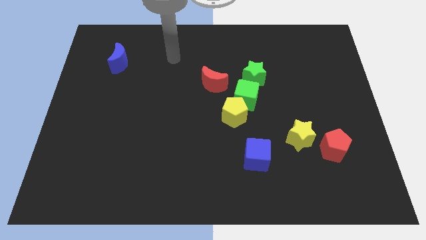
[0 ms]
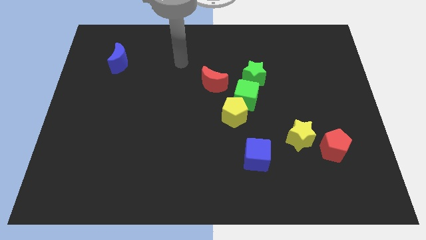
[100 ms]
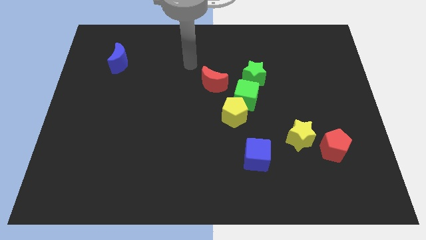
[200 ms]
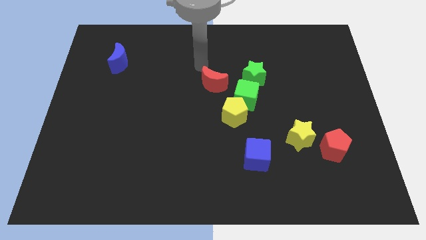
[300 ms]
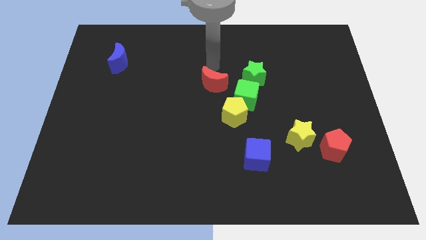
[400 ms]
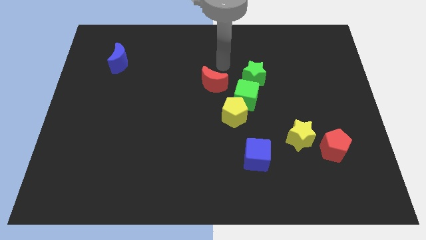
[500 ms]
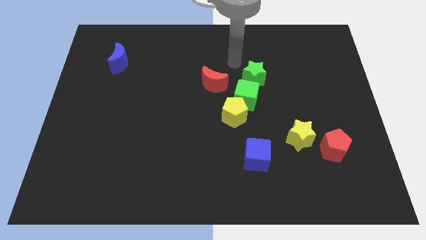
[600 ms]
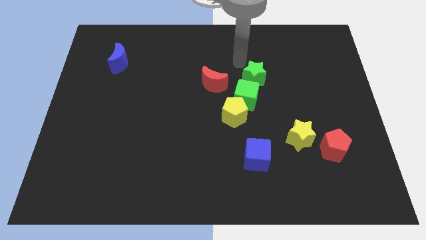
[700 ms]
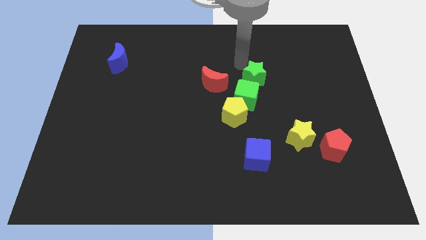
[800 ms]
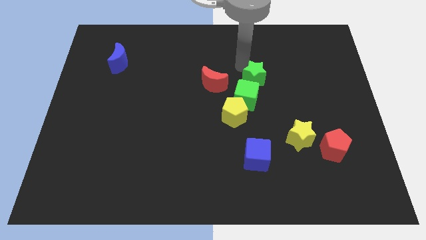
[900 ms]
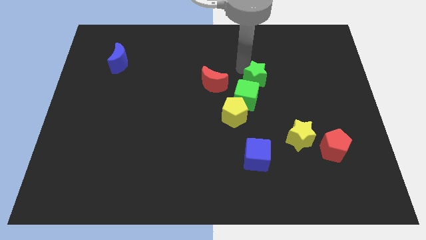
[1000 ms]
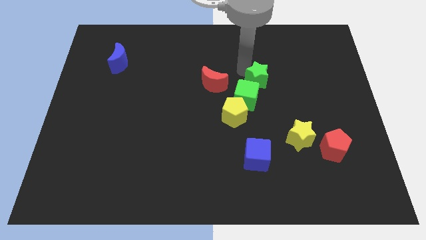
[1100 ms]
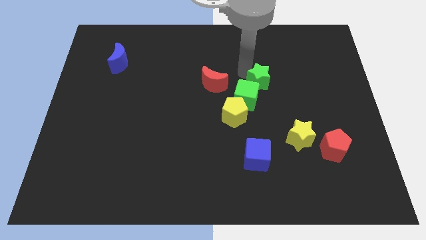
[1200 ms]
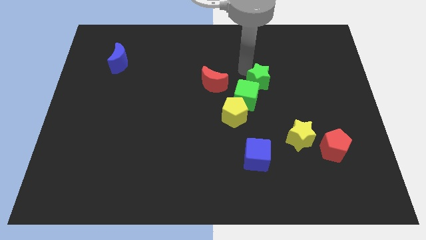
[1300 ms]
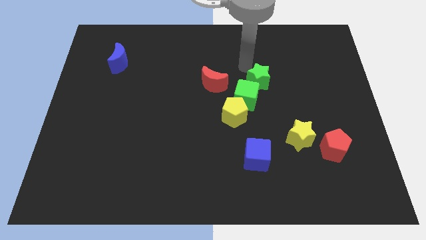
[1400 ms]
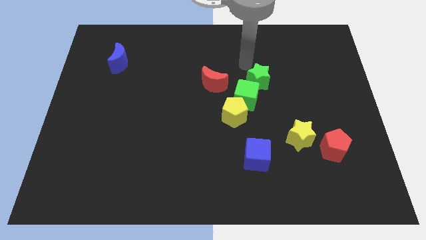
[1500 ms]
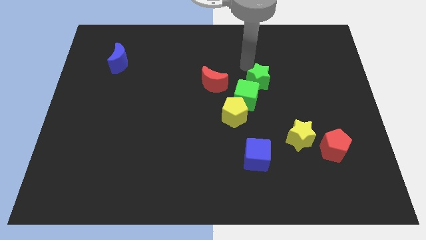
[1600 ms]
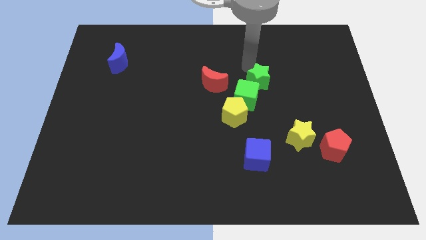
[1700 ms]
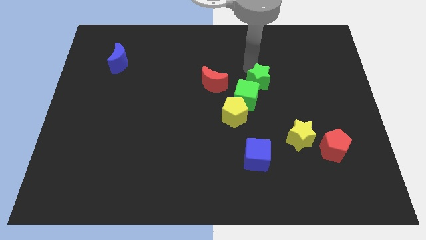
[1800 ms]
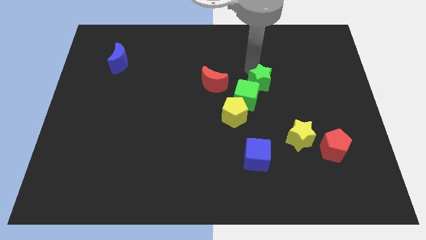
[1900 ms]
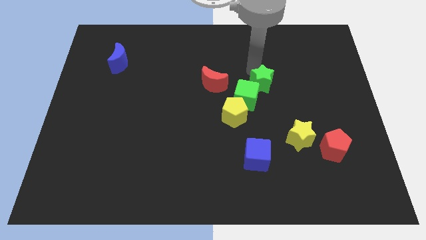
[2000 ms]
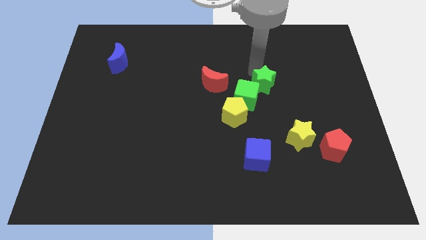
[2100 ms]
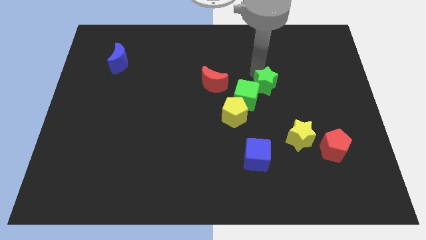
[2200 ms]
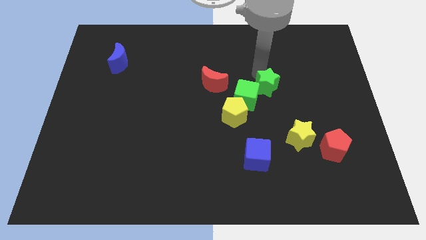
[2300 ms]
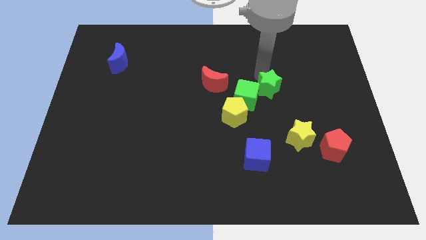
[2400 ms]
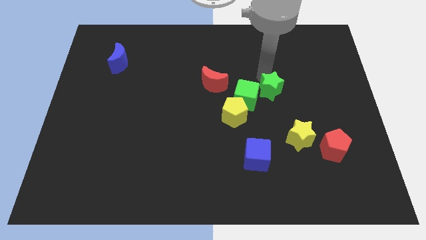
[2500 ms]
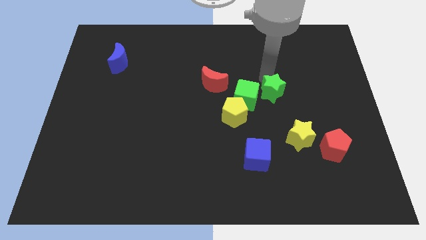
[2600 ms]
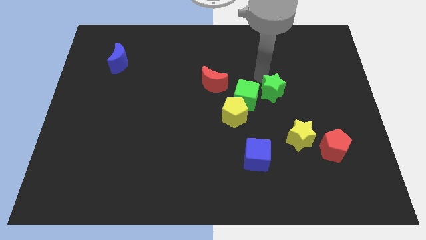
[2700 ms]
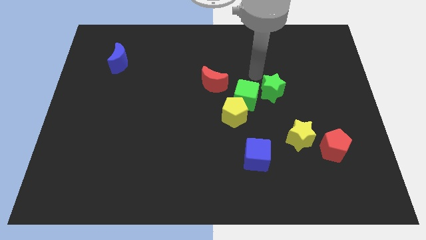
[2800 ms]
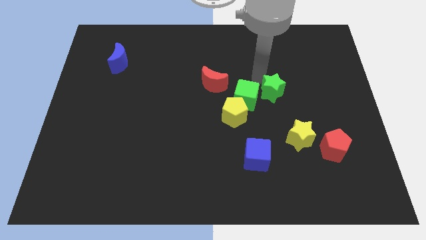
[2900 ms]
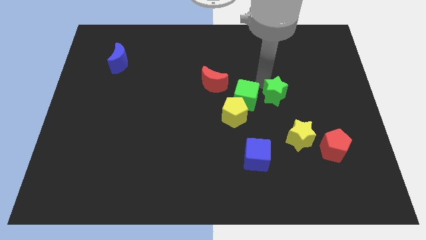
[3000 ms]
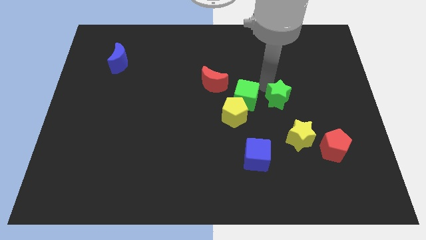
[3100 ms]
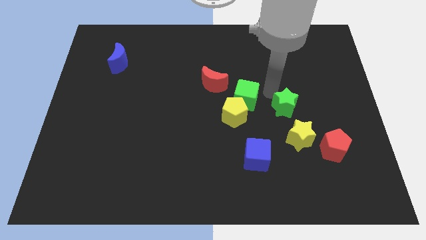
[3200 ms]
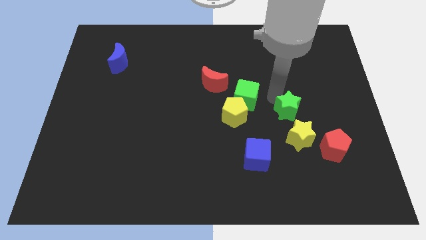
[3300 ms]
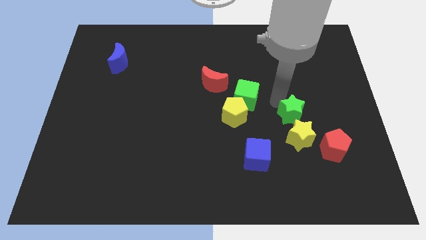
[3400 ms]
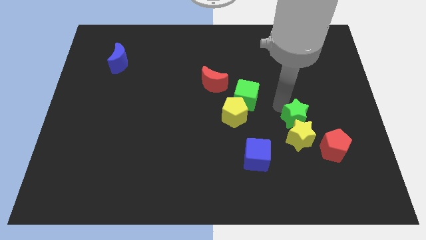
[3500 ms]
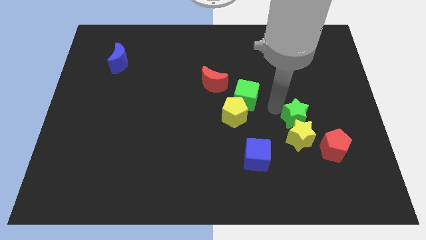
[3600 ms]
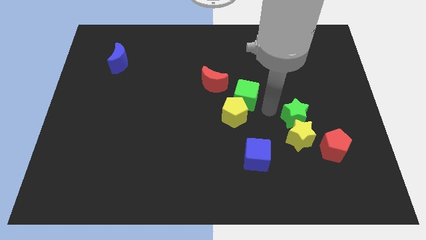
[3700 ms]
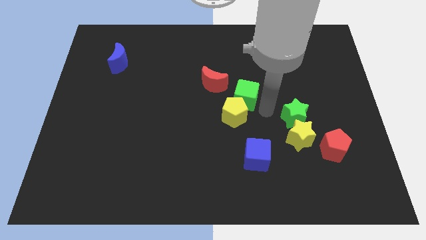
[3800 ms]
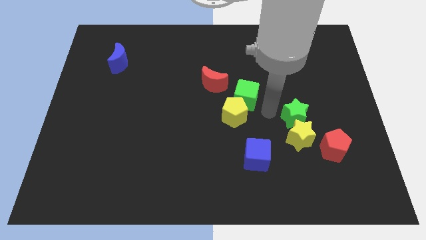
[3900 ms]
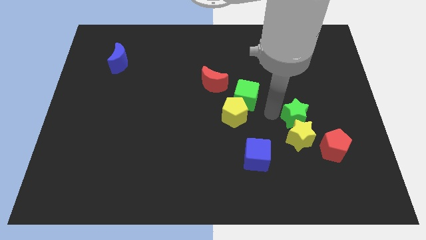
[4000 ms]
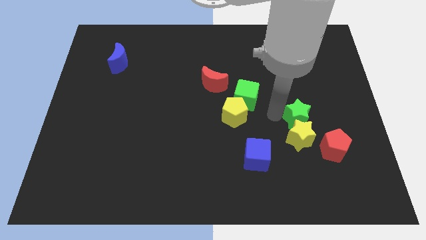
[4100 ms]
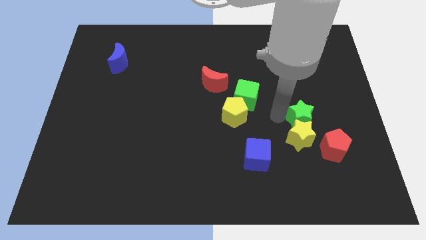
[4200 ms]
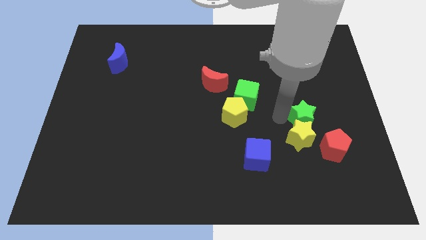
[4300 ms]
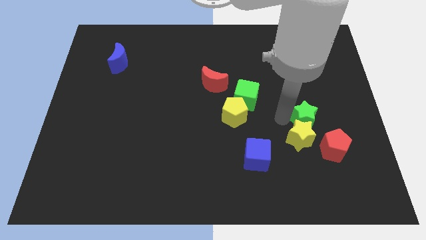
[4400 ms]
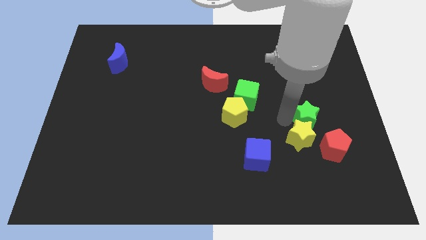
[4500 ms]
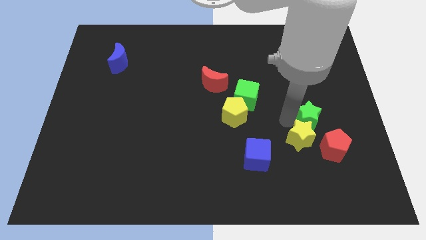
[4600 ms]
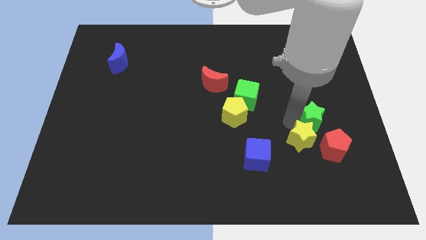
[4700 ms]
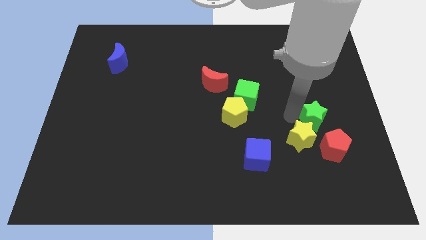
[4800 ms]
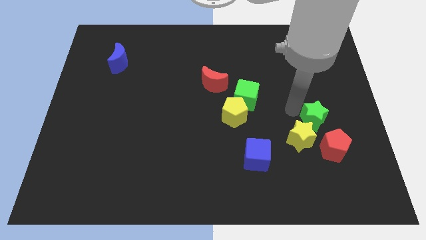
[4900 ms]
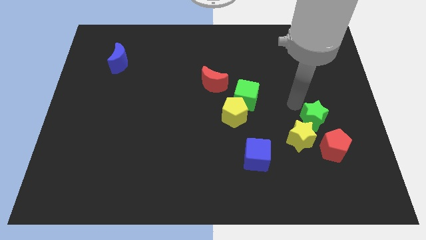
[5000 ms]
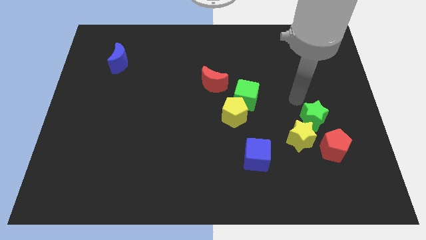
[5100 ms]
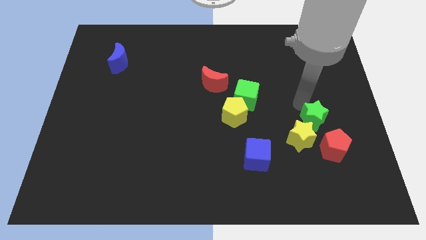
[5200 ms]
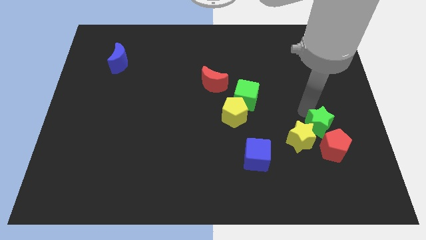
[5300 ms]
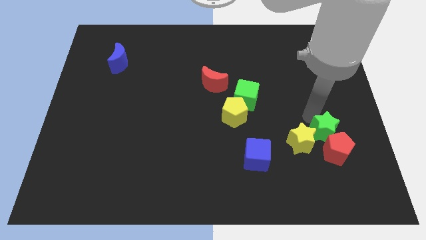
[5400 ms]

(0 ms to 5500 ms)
slide the green star next to the red pentagon

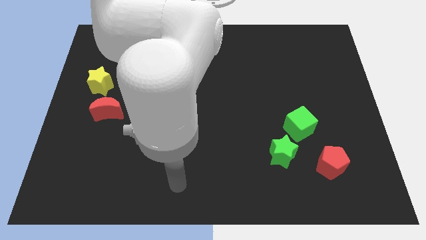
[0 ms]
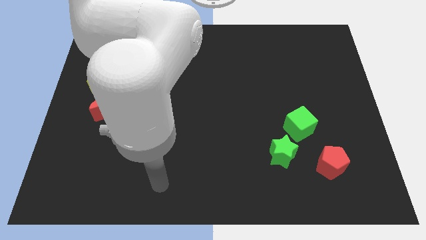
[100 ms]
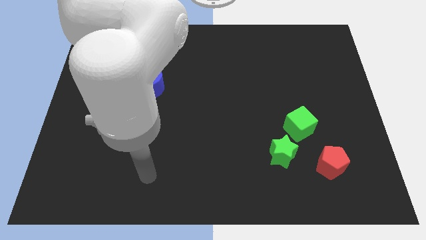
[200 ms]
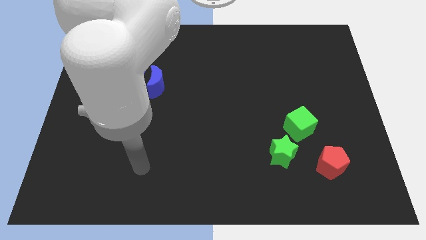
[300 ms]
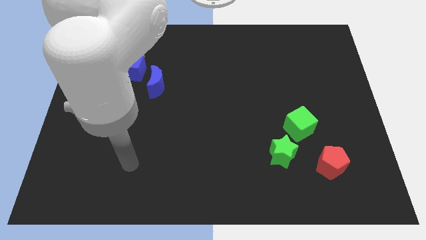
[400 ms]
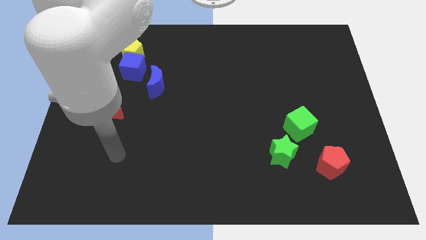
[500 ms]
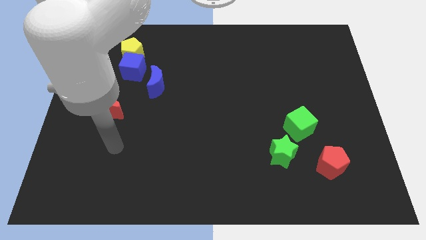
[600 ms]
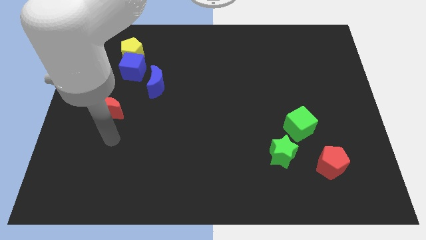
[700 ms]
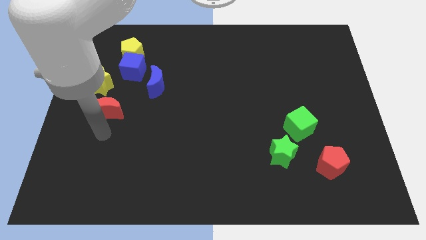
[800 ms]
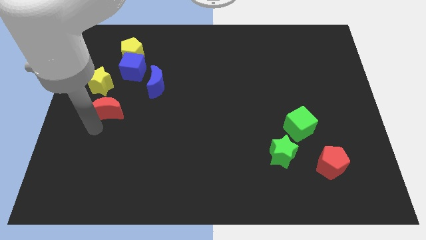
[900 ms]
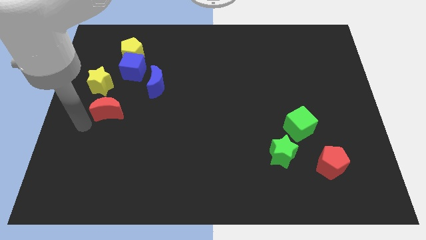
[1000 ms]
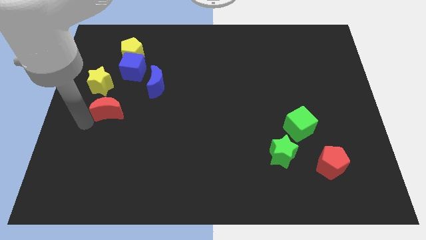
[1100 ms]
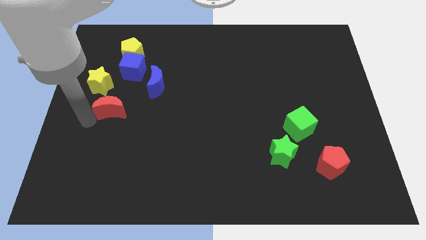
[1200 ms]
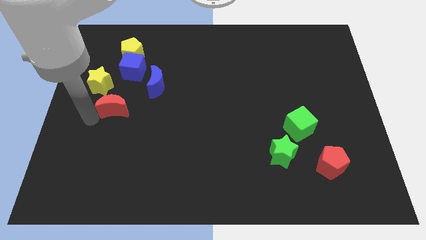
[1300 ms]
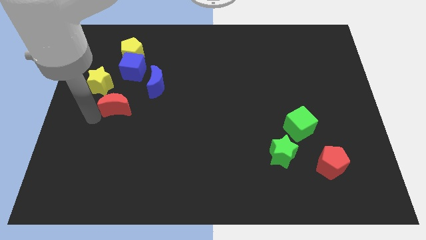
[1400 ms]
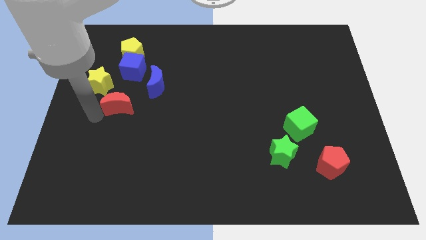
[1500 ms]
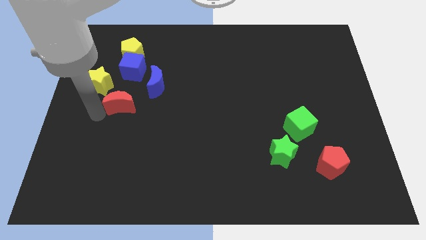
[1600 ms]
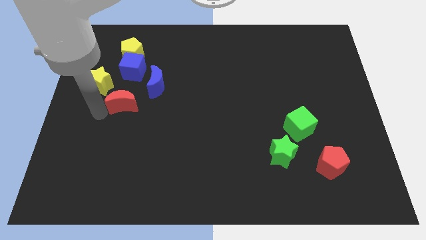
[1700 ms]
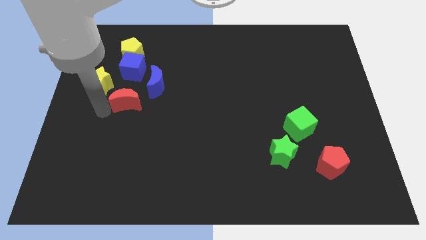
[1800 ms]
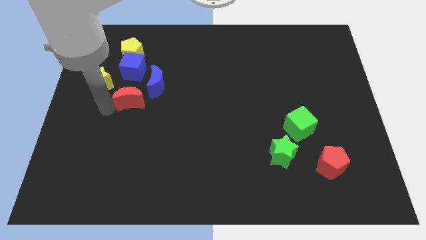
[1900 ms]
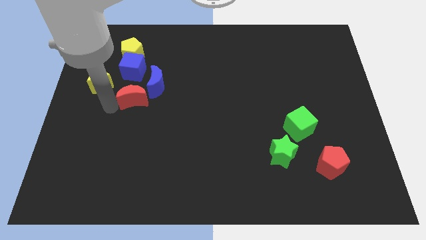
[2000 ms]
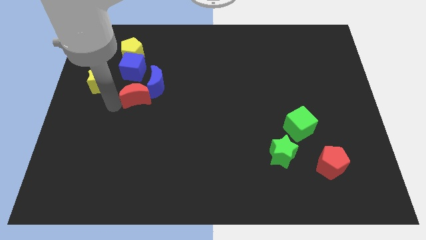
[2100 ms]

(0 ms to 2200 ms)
slide the red moon next to the blue moon
